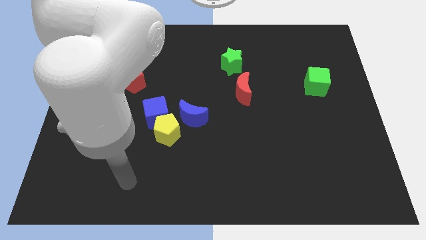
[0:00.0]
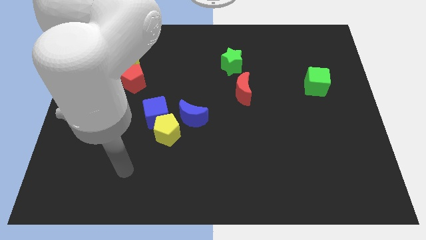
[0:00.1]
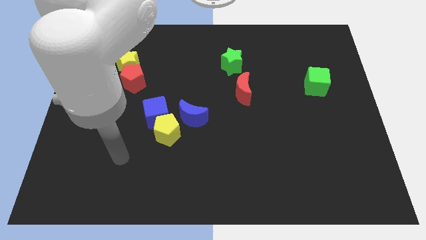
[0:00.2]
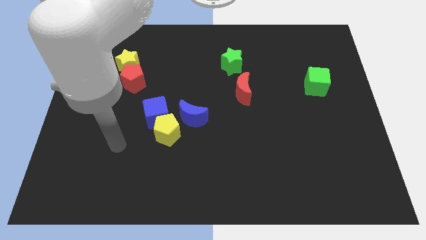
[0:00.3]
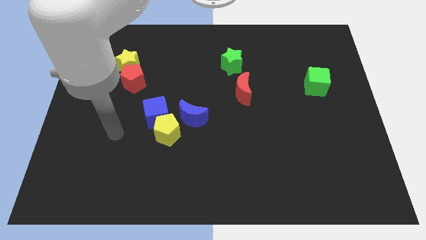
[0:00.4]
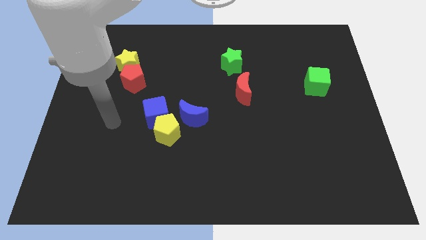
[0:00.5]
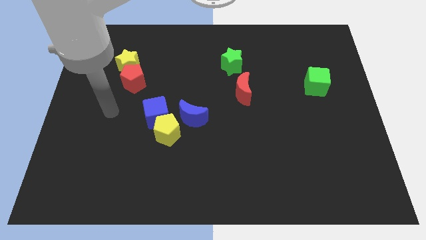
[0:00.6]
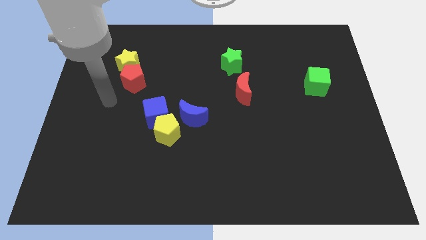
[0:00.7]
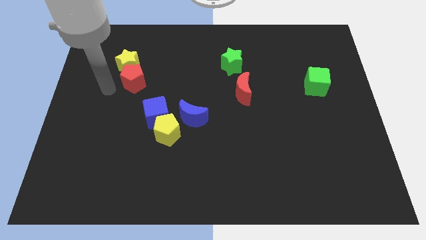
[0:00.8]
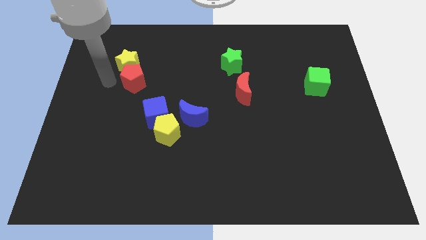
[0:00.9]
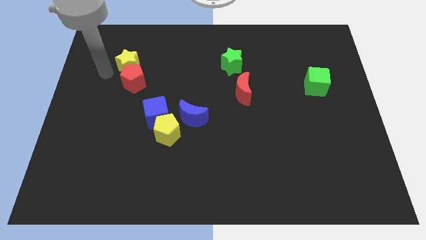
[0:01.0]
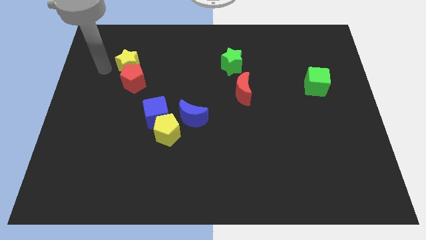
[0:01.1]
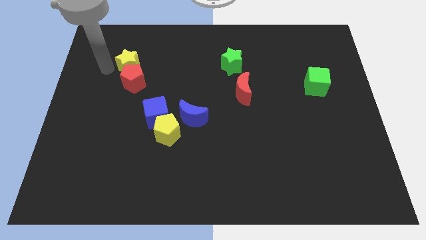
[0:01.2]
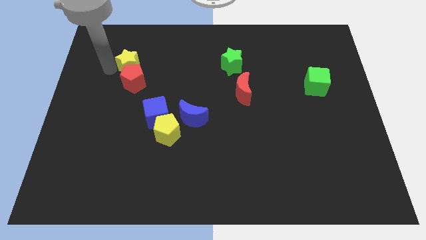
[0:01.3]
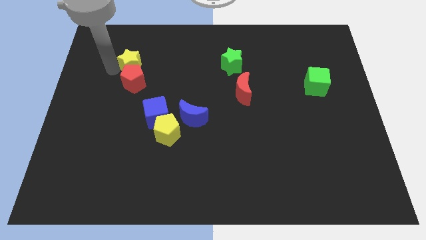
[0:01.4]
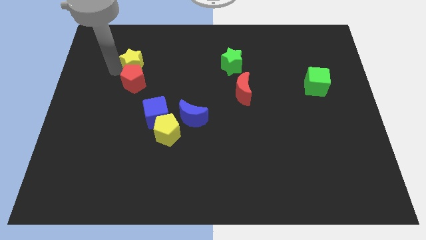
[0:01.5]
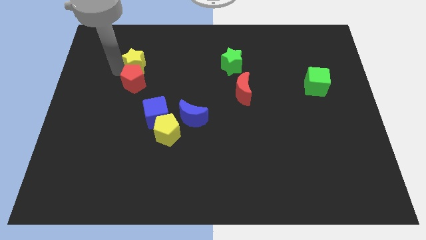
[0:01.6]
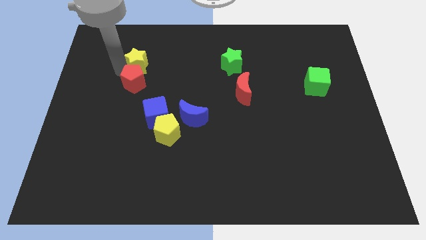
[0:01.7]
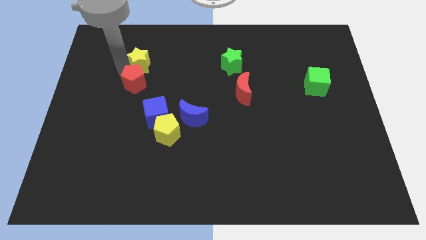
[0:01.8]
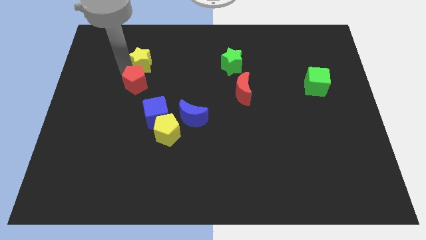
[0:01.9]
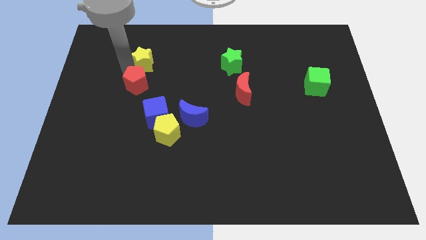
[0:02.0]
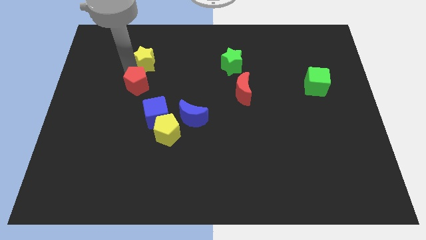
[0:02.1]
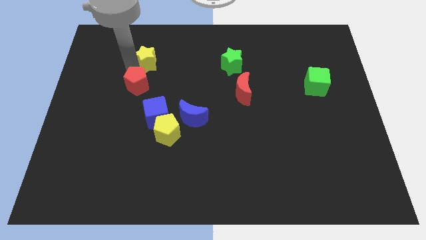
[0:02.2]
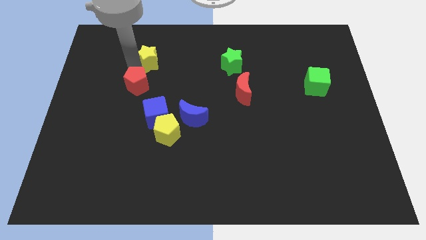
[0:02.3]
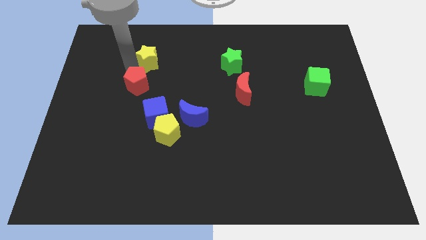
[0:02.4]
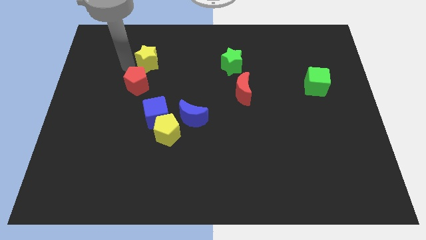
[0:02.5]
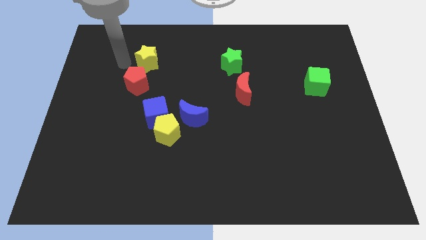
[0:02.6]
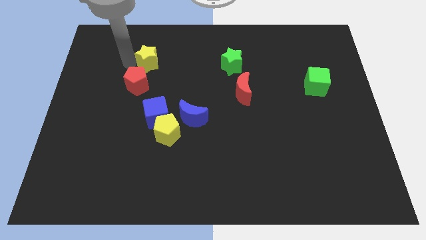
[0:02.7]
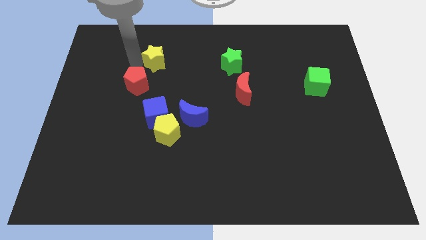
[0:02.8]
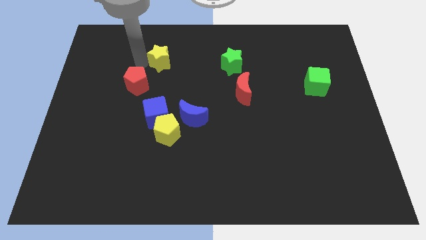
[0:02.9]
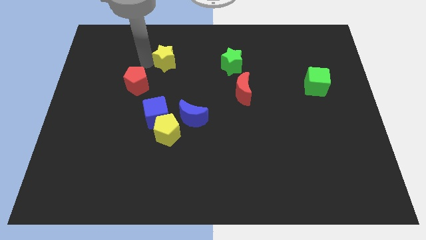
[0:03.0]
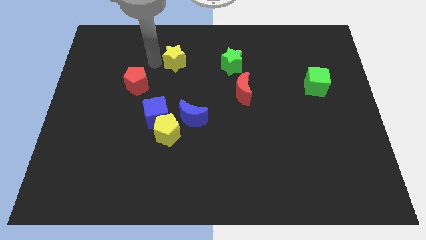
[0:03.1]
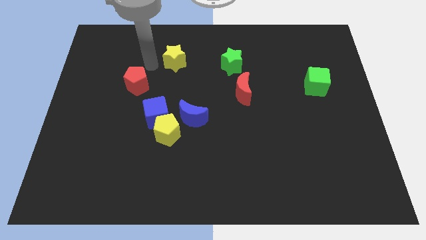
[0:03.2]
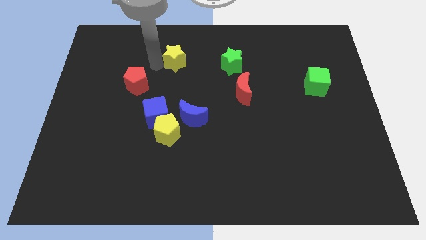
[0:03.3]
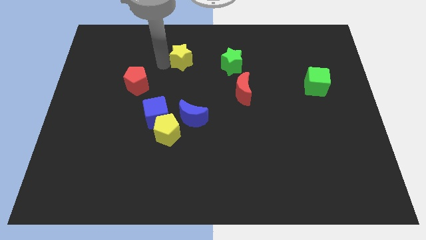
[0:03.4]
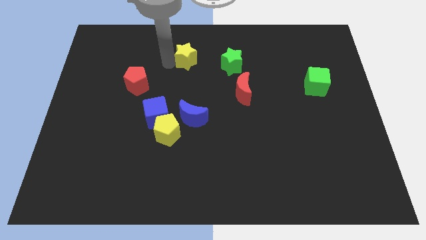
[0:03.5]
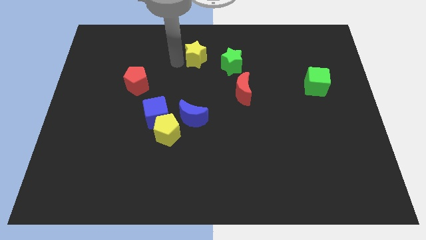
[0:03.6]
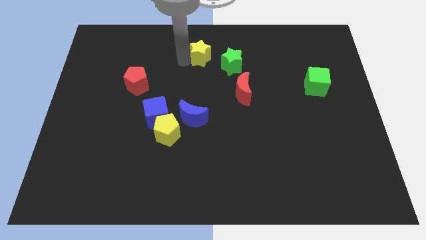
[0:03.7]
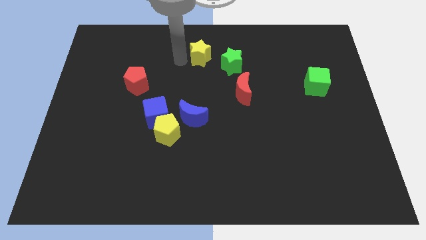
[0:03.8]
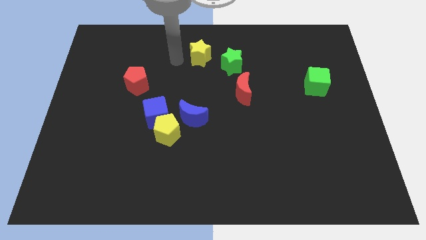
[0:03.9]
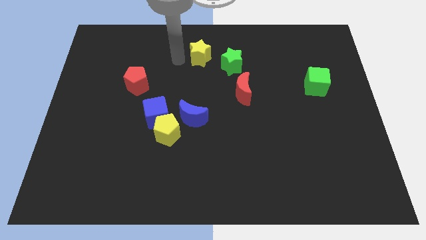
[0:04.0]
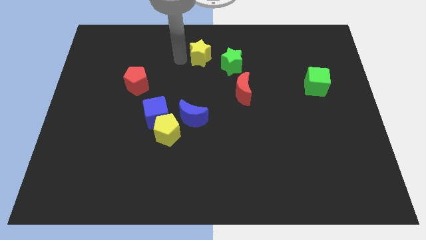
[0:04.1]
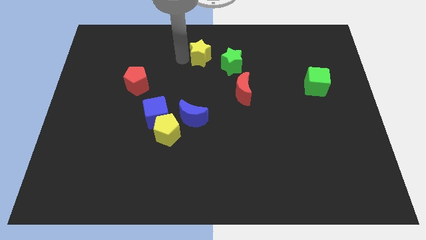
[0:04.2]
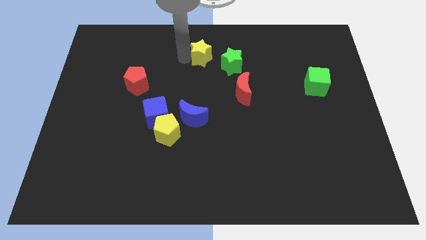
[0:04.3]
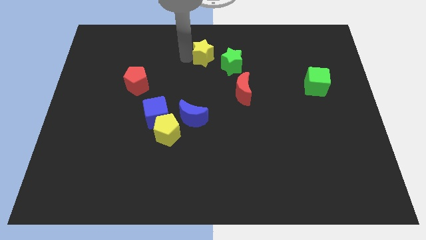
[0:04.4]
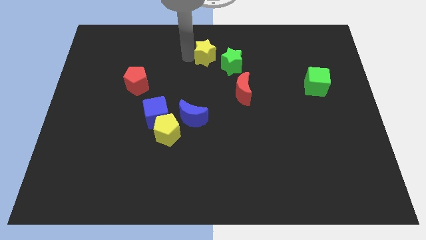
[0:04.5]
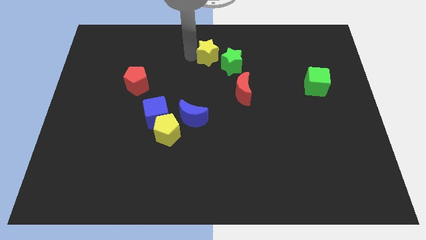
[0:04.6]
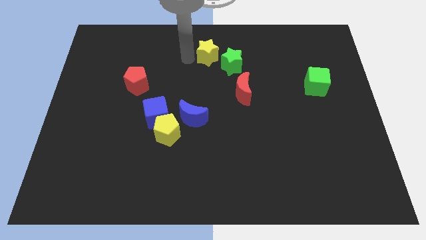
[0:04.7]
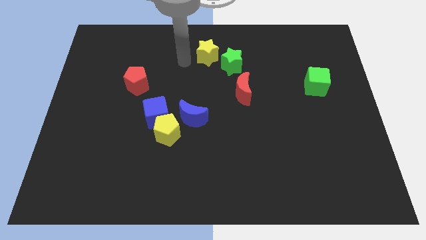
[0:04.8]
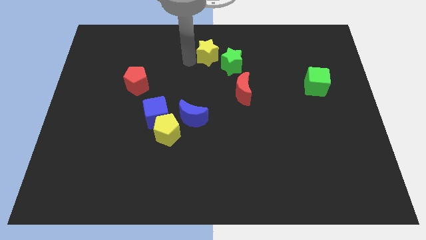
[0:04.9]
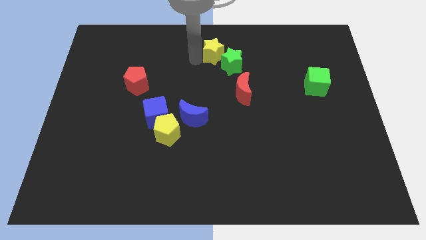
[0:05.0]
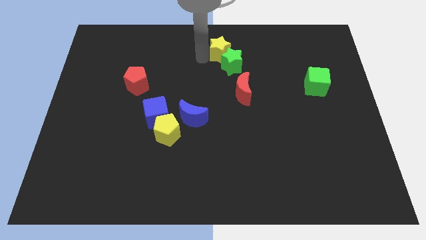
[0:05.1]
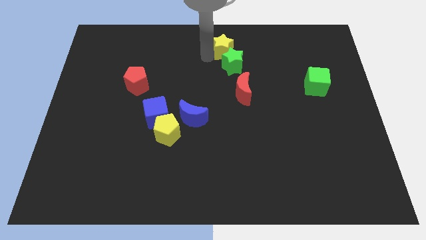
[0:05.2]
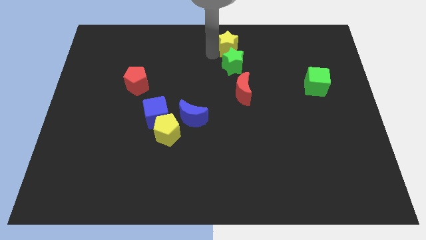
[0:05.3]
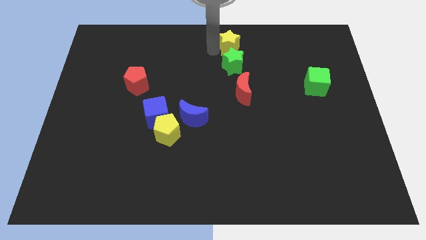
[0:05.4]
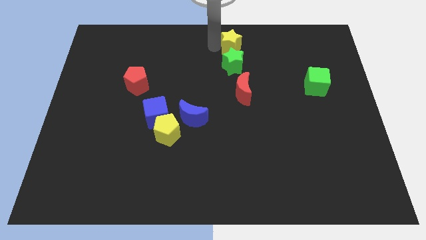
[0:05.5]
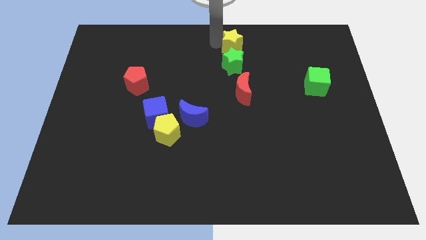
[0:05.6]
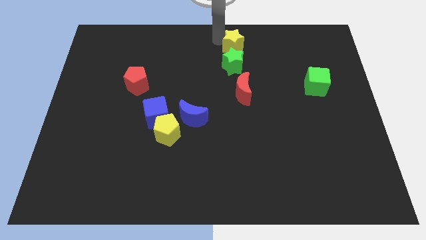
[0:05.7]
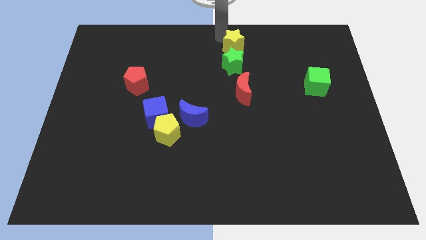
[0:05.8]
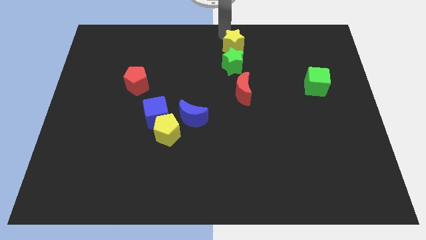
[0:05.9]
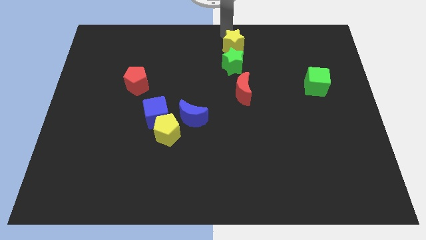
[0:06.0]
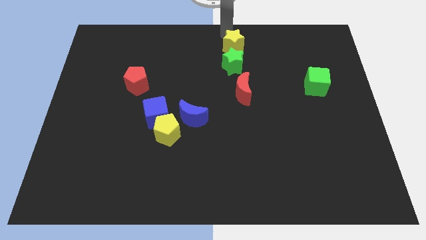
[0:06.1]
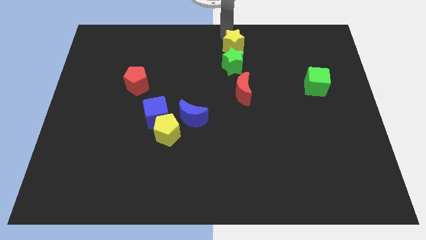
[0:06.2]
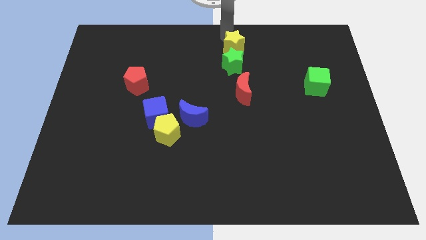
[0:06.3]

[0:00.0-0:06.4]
put the yellow star to the top side of the red moon

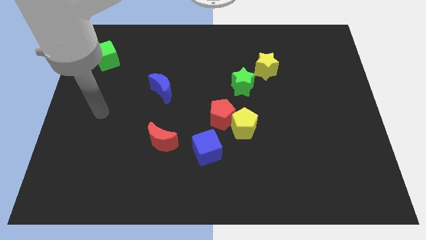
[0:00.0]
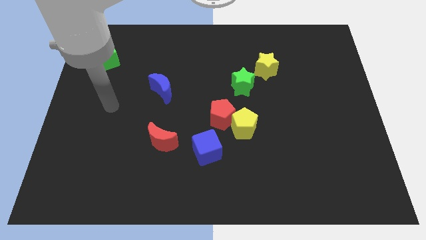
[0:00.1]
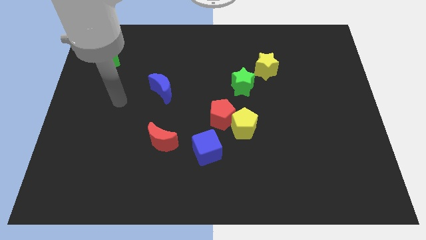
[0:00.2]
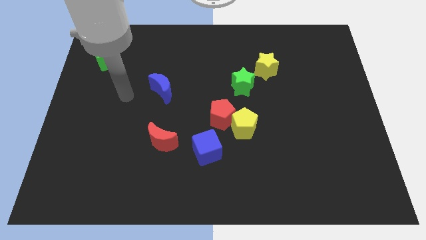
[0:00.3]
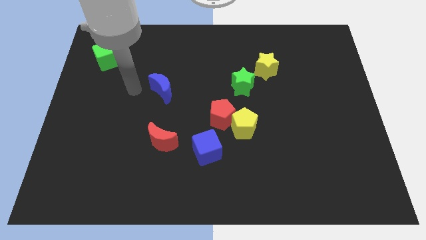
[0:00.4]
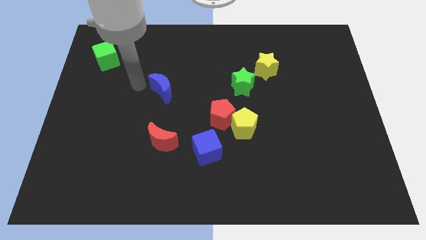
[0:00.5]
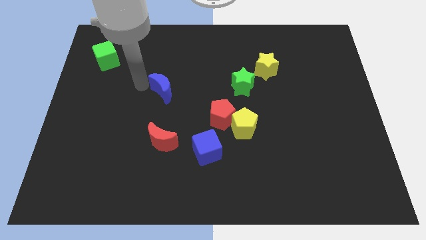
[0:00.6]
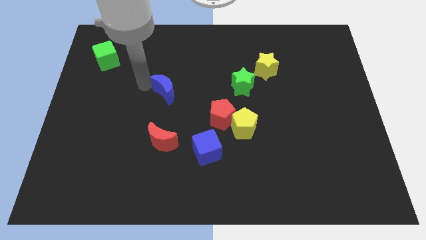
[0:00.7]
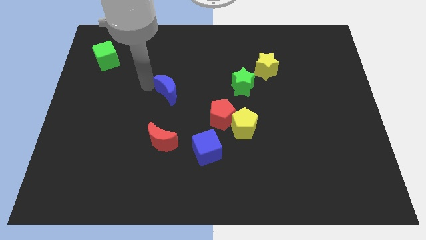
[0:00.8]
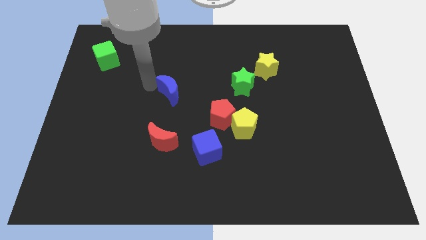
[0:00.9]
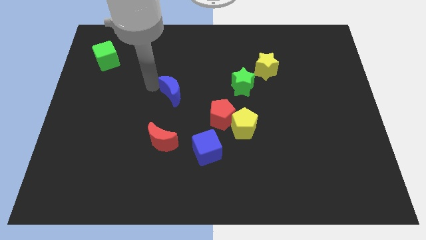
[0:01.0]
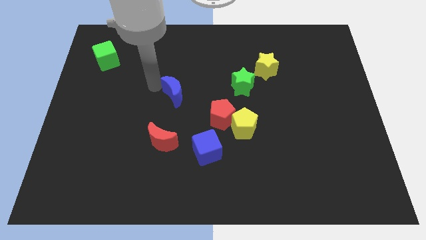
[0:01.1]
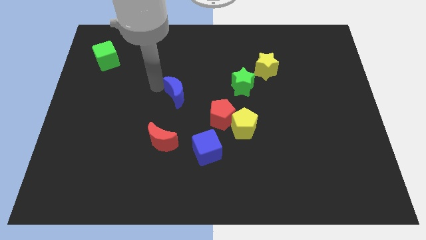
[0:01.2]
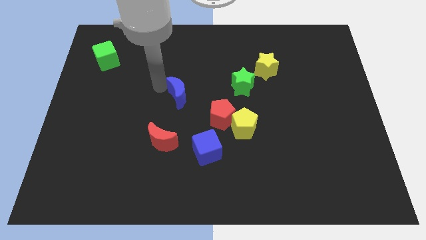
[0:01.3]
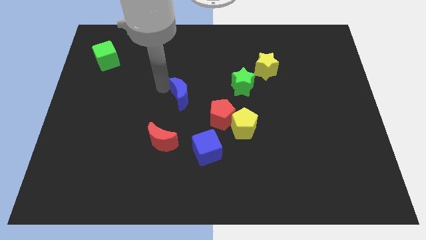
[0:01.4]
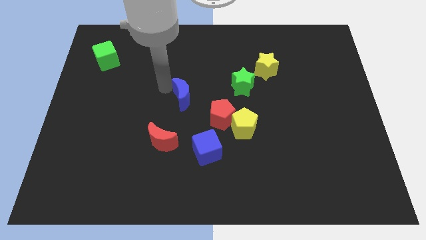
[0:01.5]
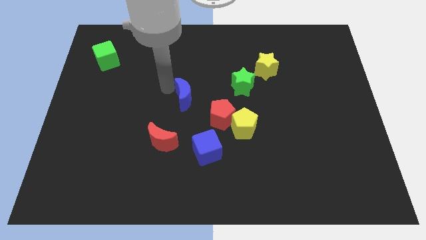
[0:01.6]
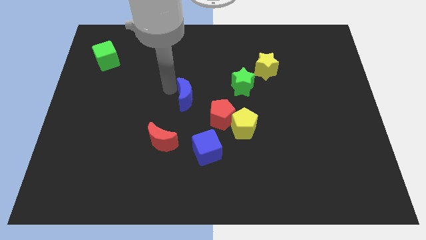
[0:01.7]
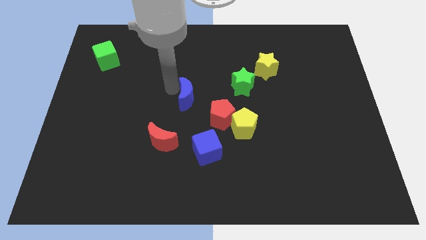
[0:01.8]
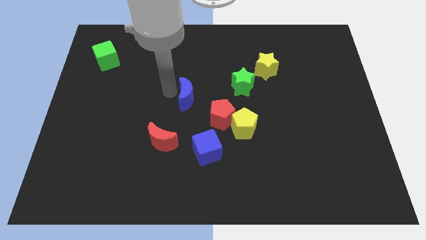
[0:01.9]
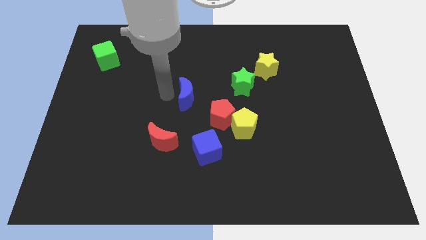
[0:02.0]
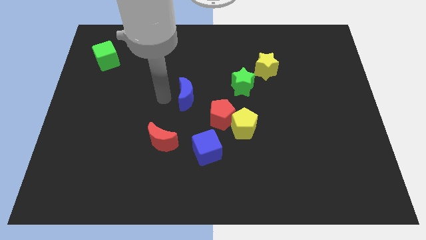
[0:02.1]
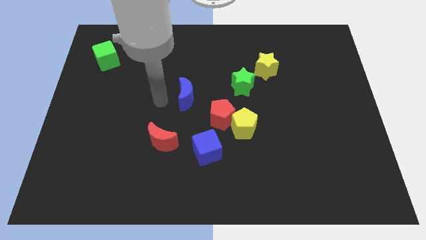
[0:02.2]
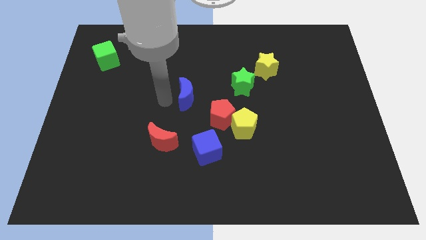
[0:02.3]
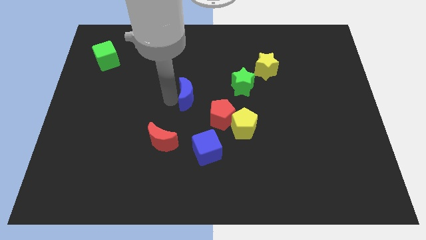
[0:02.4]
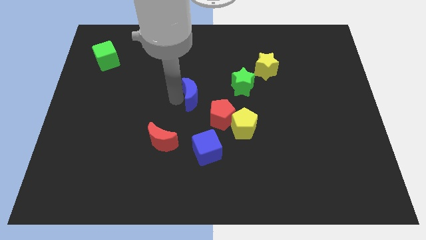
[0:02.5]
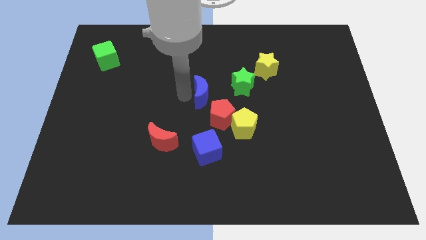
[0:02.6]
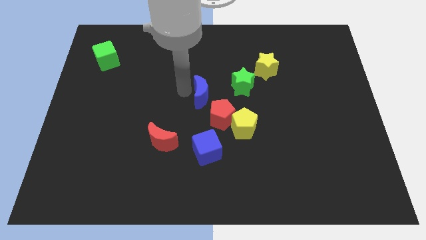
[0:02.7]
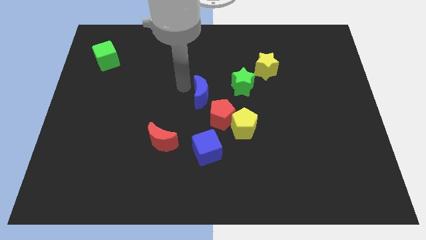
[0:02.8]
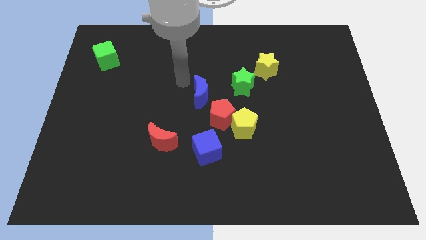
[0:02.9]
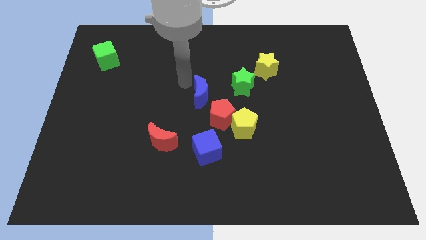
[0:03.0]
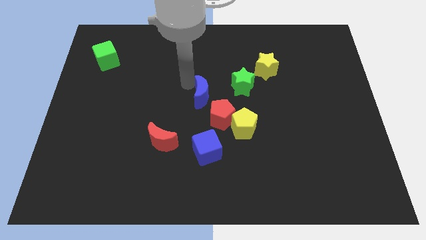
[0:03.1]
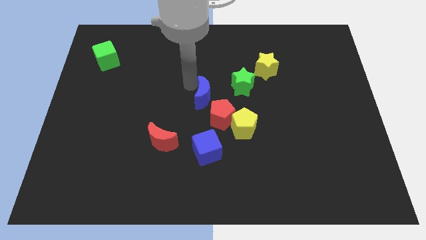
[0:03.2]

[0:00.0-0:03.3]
put the blue moon diagonally up and to the left of the yellow pentagon
